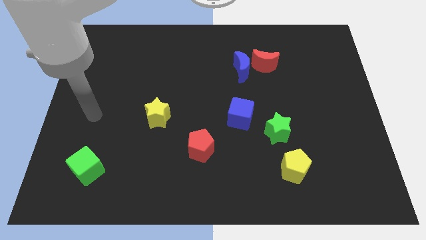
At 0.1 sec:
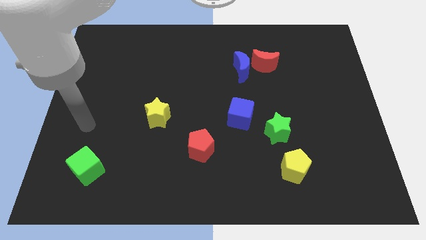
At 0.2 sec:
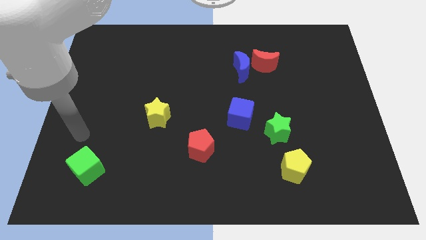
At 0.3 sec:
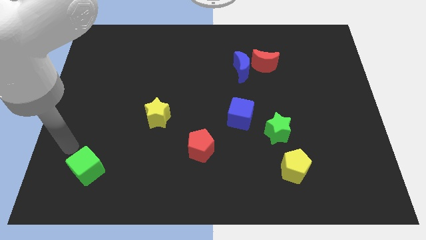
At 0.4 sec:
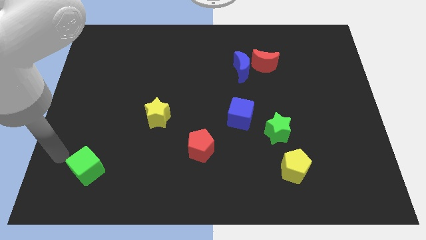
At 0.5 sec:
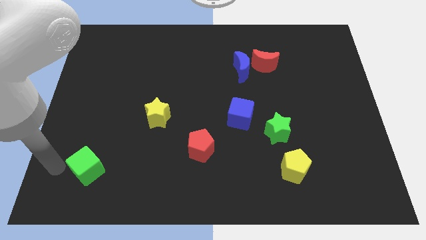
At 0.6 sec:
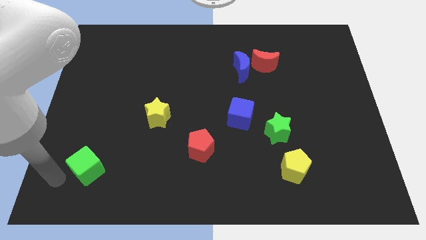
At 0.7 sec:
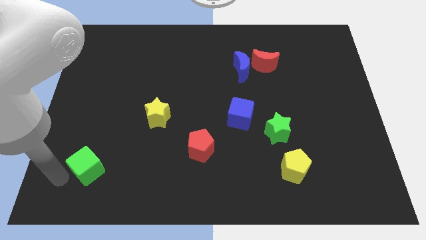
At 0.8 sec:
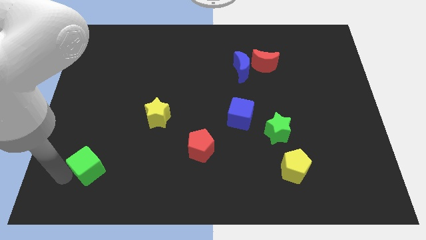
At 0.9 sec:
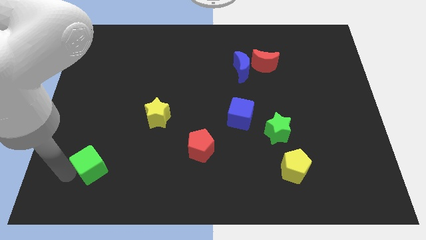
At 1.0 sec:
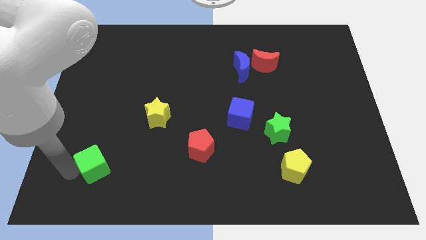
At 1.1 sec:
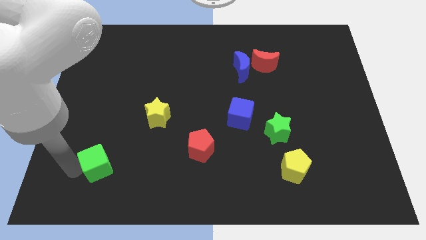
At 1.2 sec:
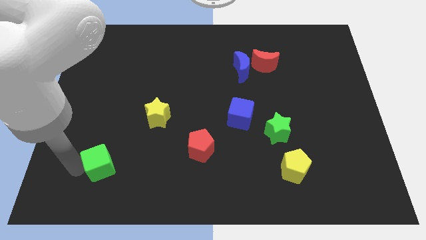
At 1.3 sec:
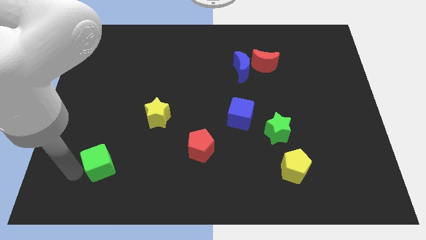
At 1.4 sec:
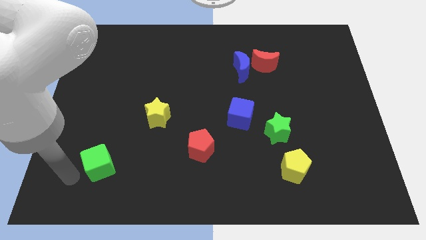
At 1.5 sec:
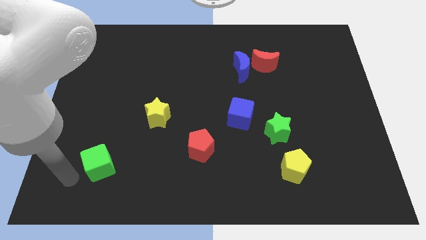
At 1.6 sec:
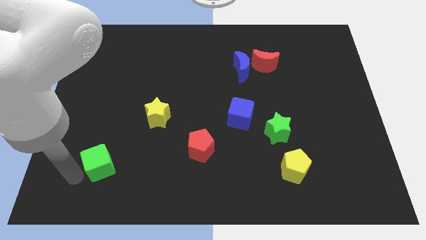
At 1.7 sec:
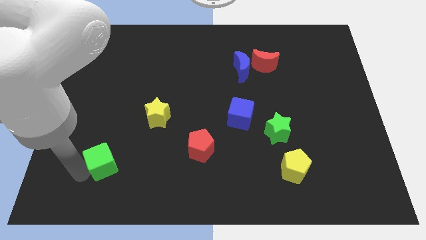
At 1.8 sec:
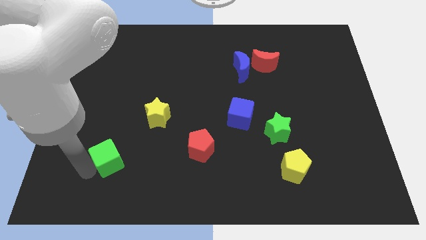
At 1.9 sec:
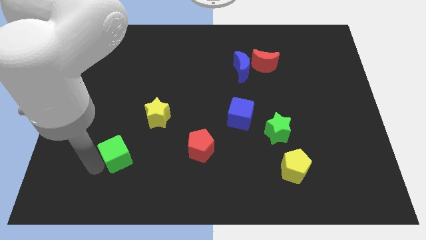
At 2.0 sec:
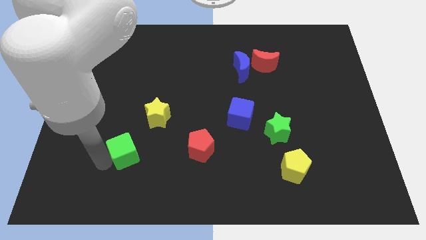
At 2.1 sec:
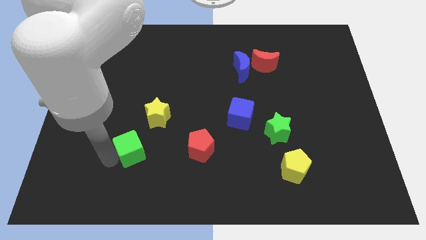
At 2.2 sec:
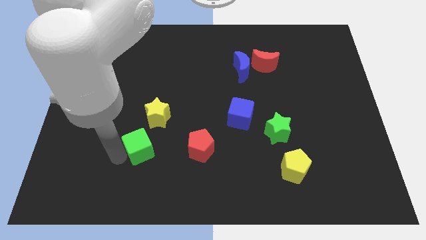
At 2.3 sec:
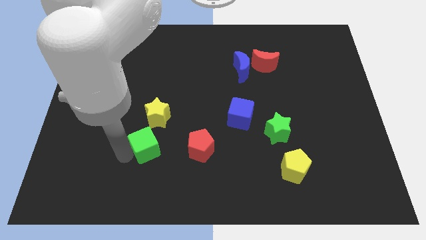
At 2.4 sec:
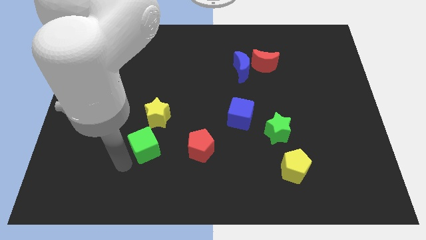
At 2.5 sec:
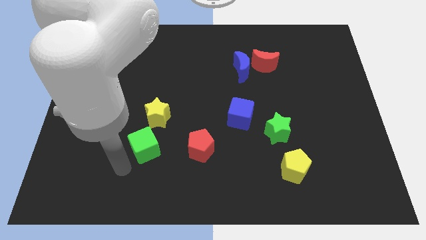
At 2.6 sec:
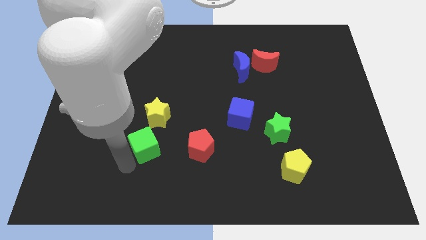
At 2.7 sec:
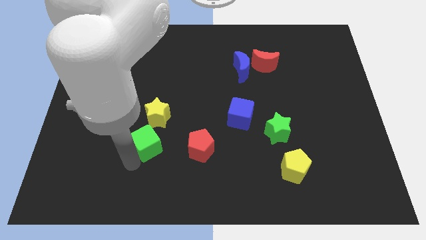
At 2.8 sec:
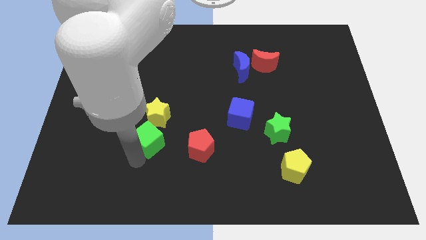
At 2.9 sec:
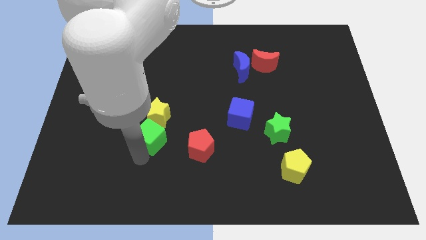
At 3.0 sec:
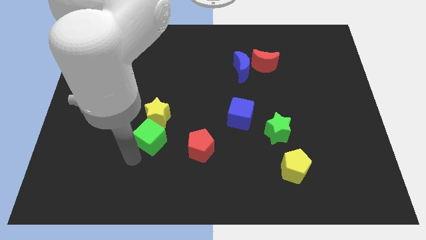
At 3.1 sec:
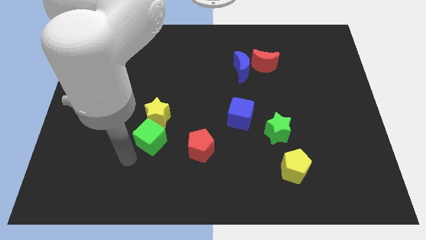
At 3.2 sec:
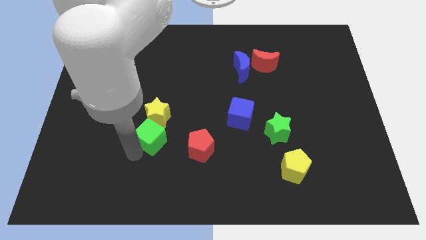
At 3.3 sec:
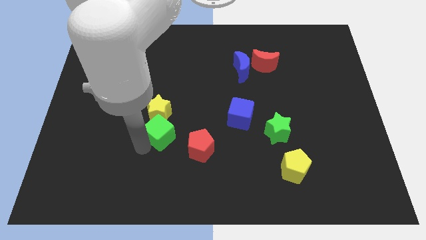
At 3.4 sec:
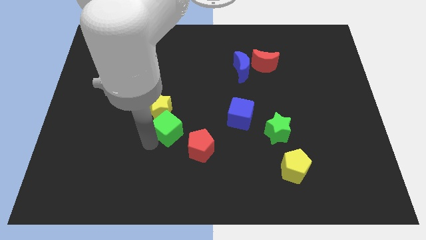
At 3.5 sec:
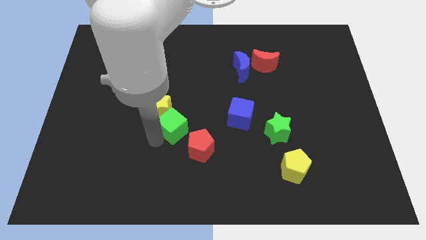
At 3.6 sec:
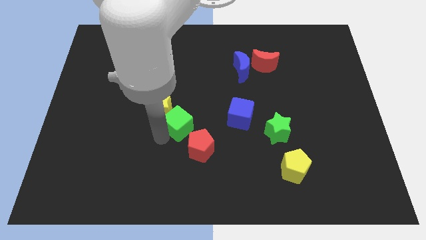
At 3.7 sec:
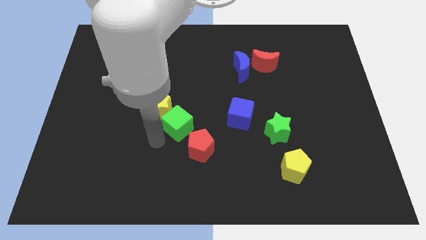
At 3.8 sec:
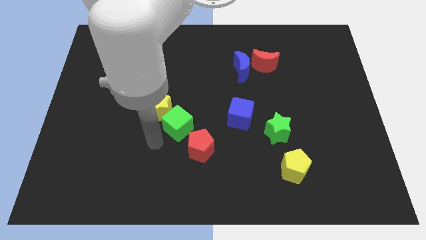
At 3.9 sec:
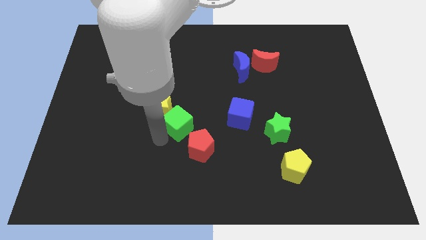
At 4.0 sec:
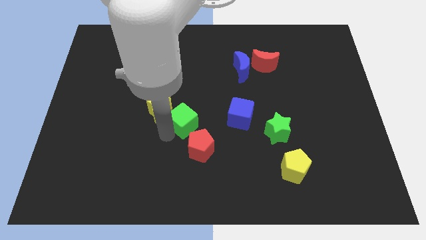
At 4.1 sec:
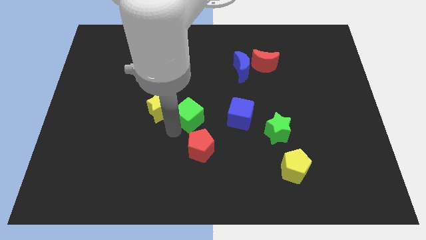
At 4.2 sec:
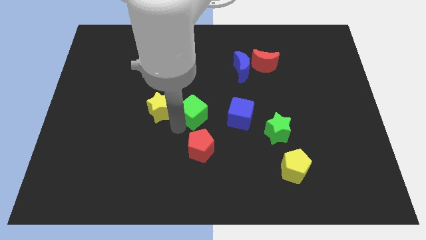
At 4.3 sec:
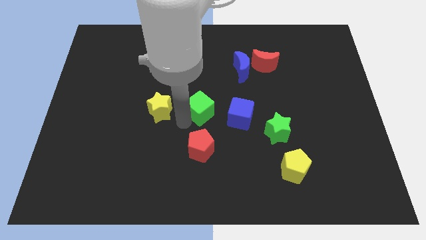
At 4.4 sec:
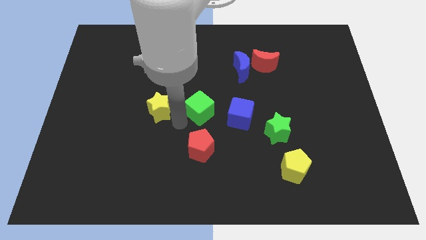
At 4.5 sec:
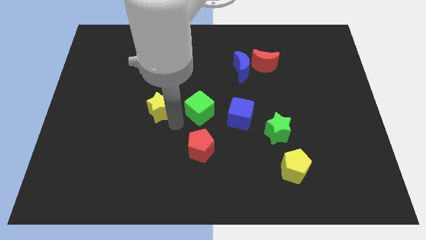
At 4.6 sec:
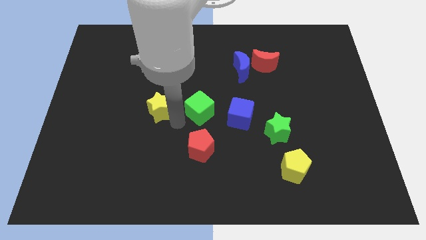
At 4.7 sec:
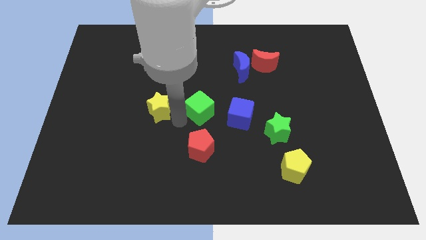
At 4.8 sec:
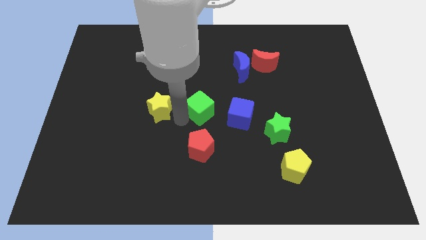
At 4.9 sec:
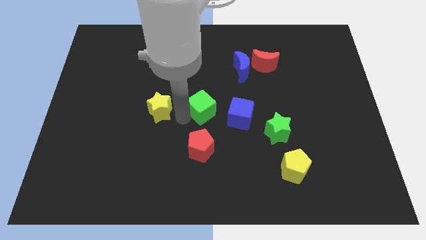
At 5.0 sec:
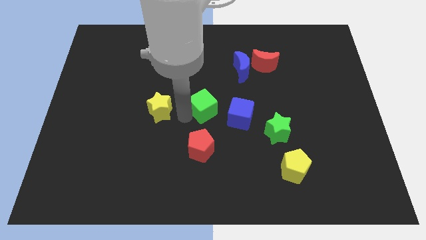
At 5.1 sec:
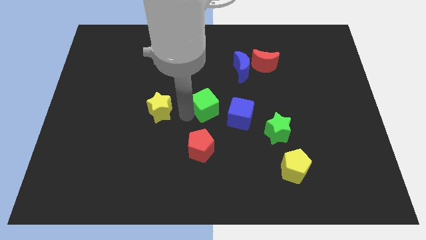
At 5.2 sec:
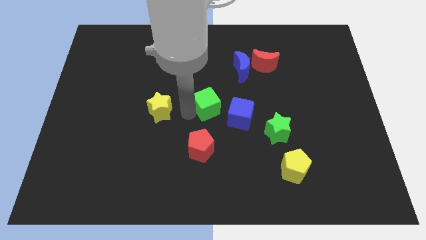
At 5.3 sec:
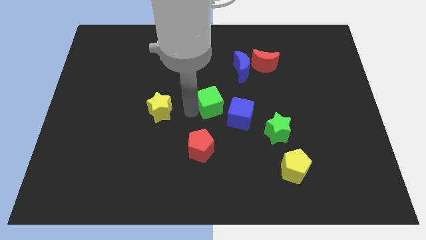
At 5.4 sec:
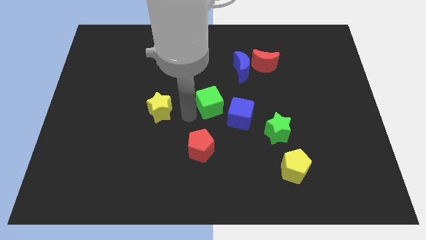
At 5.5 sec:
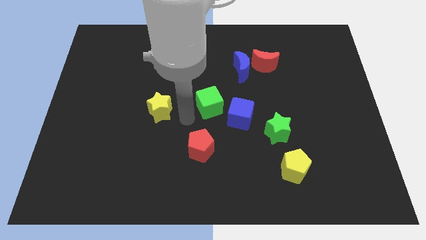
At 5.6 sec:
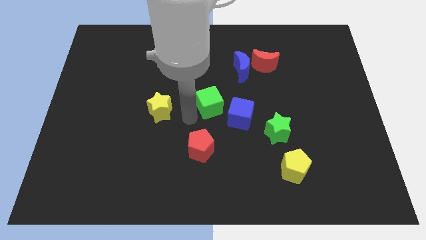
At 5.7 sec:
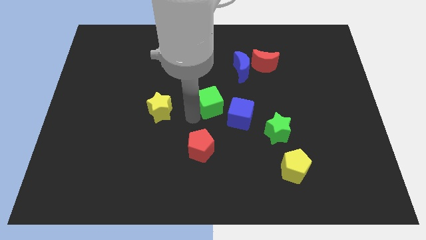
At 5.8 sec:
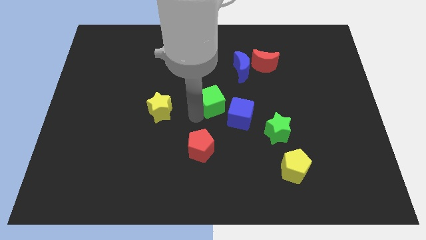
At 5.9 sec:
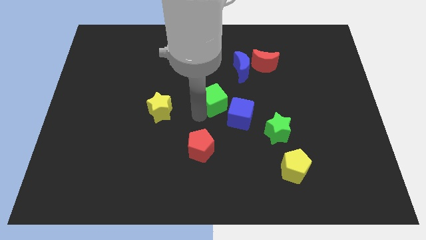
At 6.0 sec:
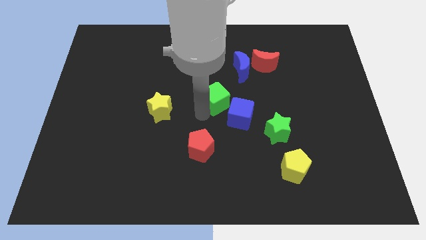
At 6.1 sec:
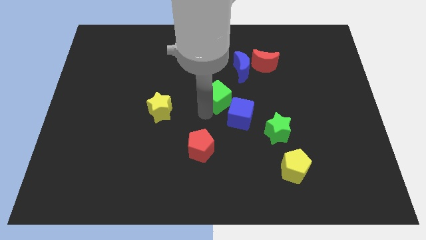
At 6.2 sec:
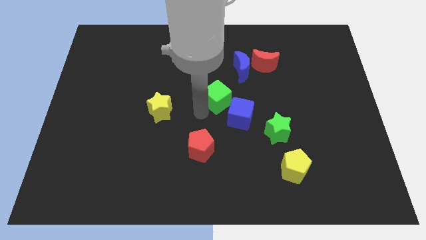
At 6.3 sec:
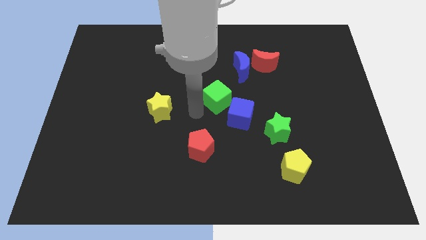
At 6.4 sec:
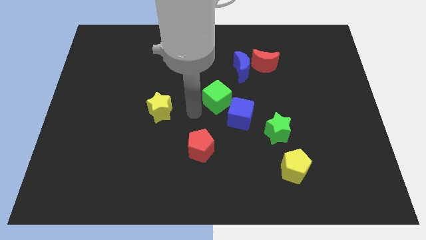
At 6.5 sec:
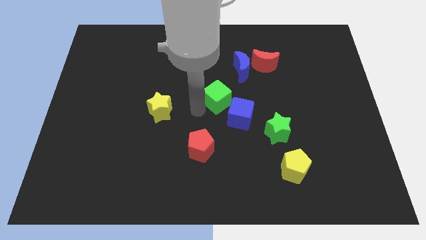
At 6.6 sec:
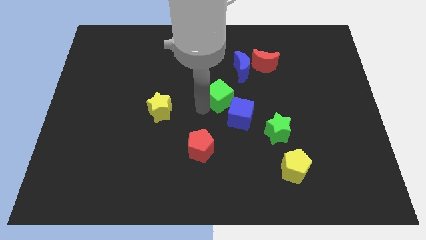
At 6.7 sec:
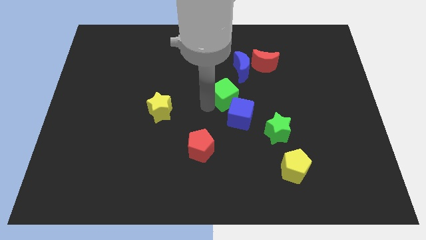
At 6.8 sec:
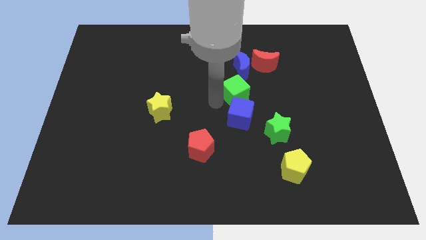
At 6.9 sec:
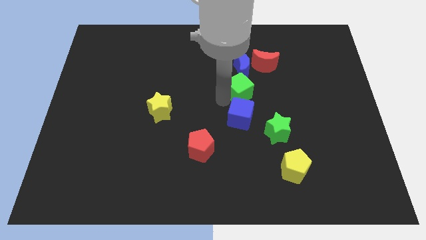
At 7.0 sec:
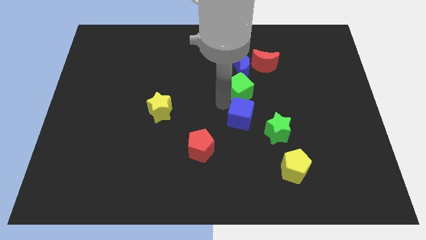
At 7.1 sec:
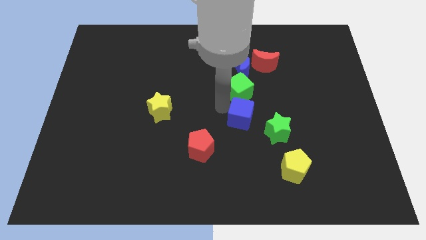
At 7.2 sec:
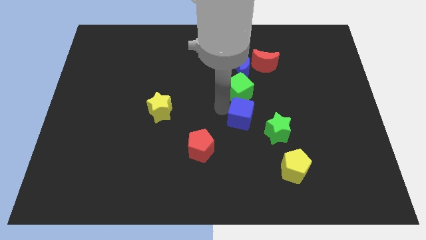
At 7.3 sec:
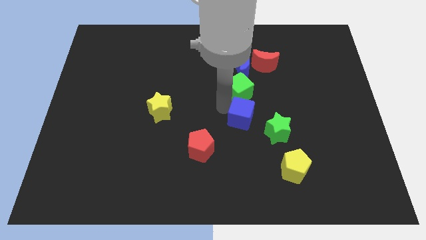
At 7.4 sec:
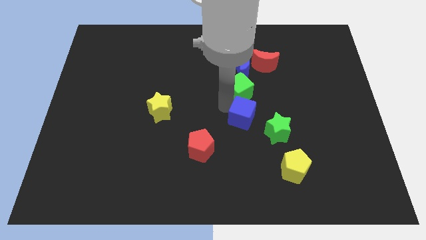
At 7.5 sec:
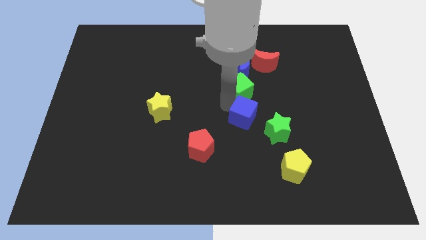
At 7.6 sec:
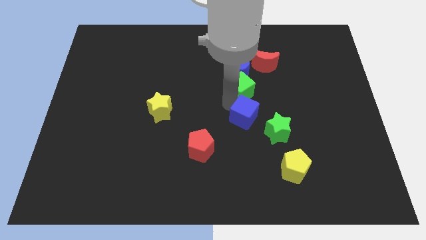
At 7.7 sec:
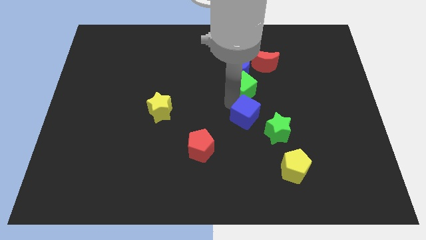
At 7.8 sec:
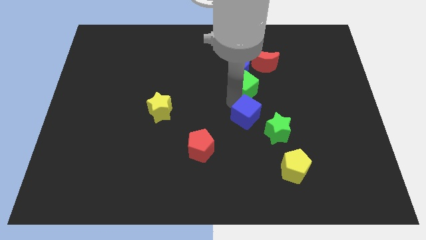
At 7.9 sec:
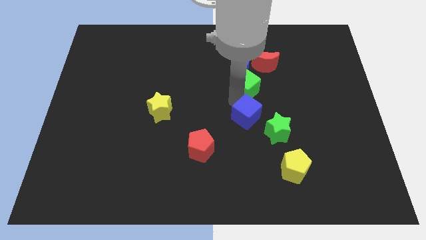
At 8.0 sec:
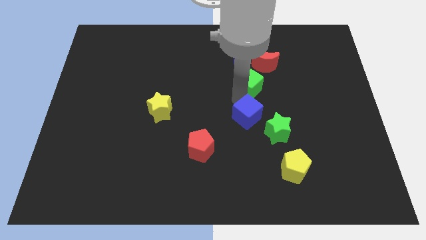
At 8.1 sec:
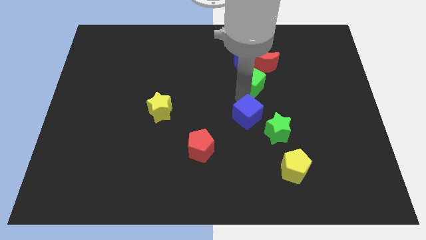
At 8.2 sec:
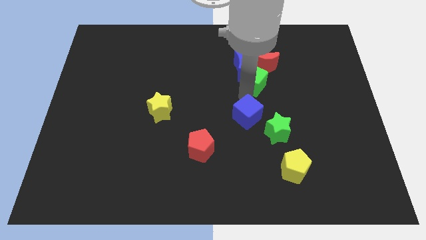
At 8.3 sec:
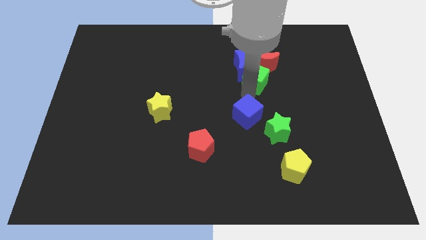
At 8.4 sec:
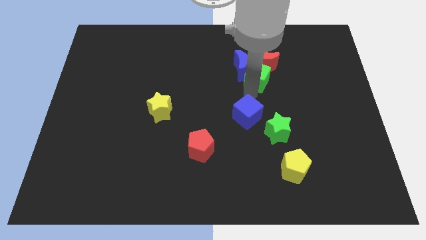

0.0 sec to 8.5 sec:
put the green cube next to the red moon
